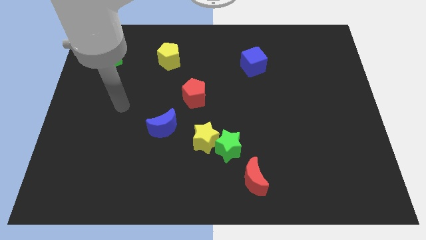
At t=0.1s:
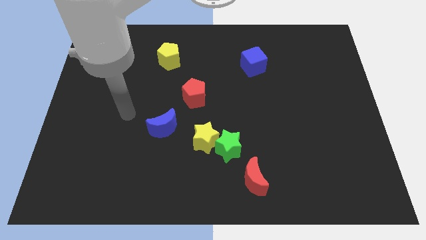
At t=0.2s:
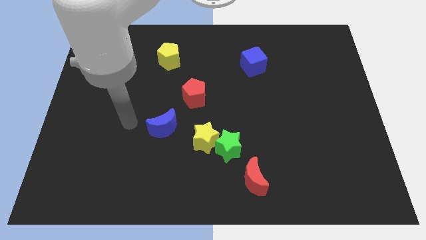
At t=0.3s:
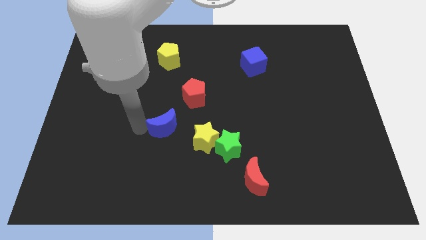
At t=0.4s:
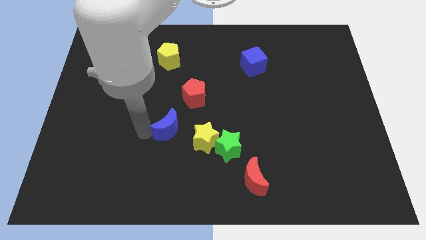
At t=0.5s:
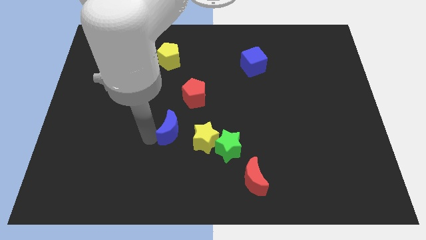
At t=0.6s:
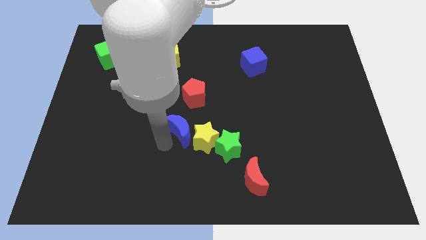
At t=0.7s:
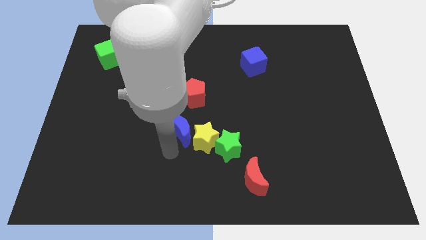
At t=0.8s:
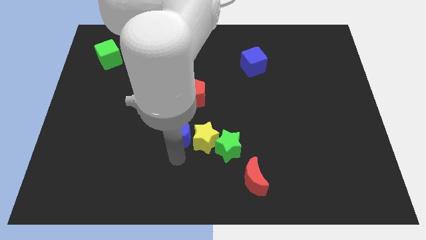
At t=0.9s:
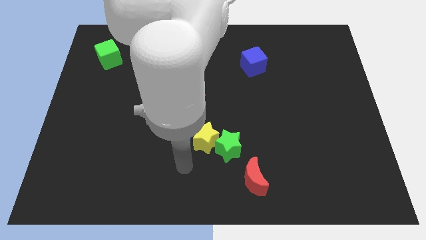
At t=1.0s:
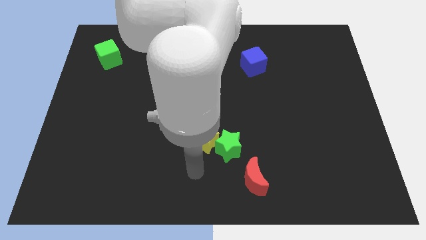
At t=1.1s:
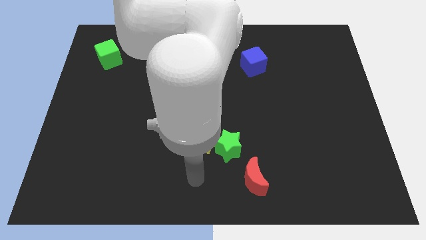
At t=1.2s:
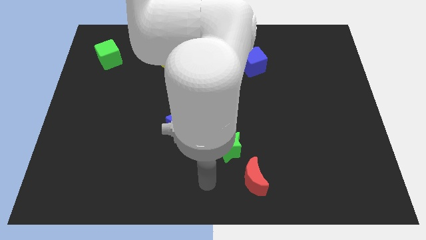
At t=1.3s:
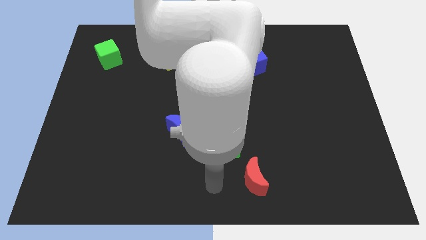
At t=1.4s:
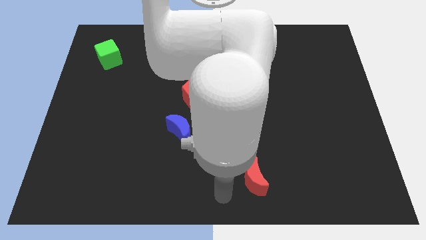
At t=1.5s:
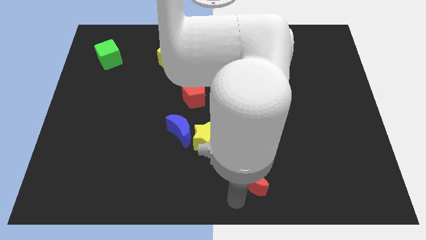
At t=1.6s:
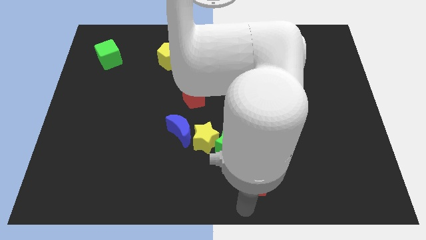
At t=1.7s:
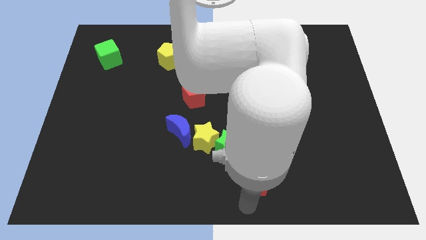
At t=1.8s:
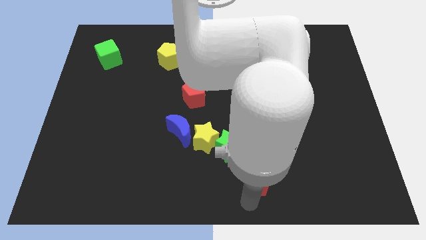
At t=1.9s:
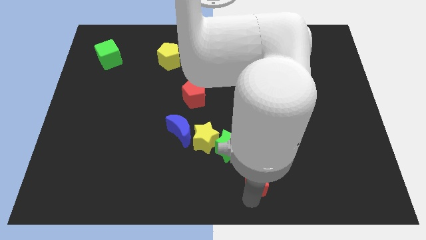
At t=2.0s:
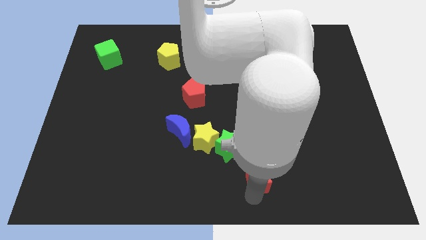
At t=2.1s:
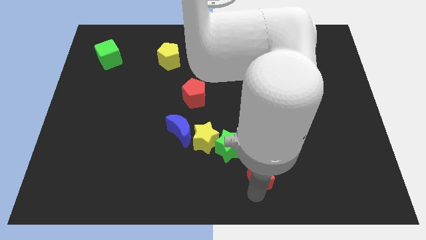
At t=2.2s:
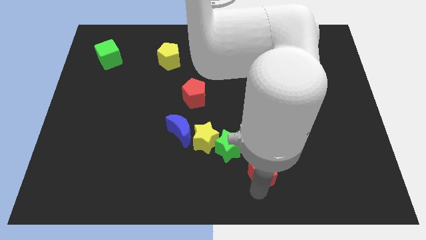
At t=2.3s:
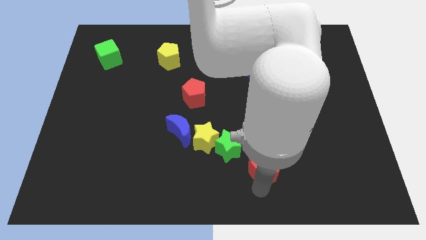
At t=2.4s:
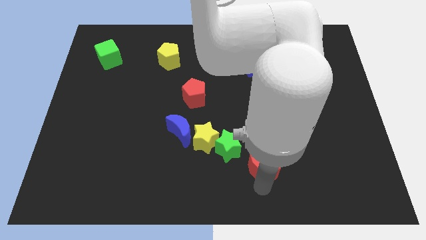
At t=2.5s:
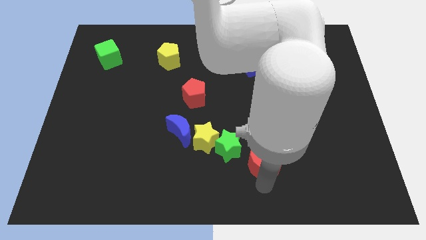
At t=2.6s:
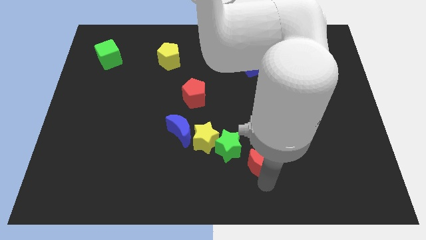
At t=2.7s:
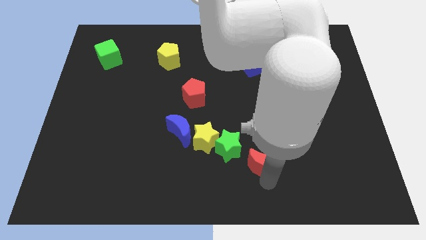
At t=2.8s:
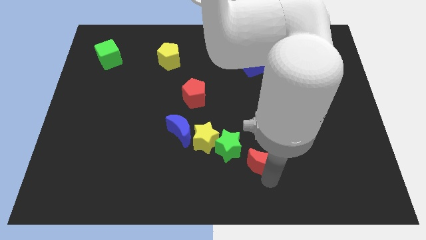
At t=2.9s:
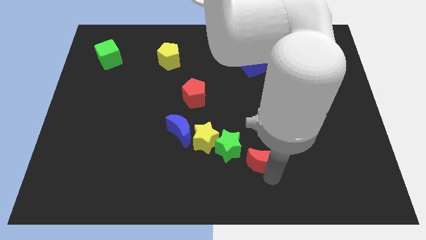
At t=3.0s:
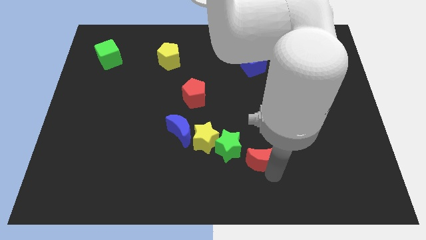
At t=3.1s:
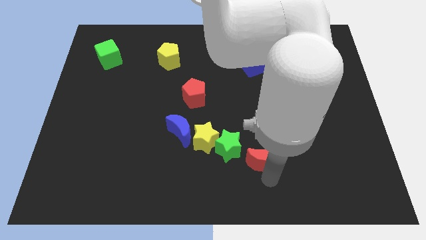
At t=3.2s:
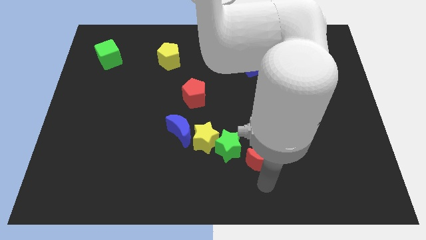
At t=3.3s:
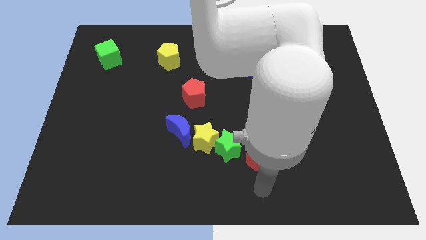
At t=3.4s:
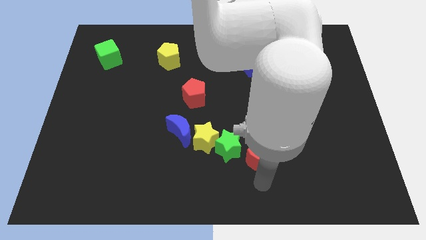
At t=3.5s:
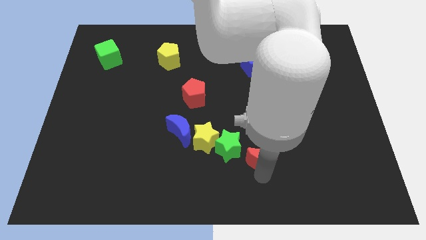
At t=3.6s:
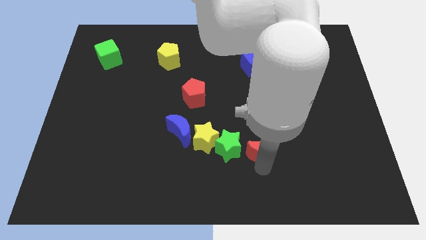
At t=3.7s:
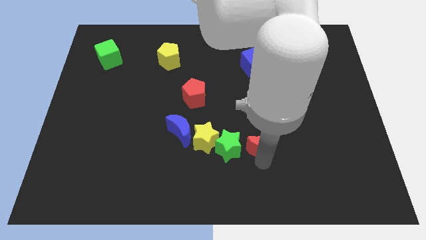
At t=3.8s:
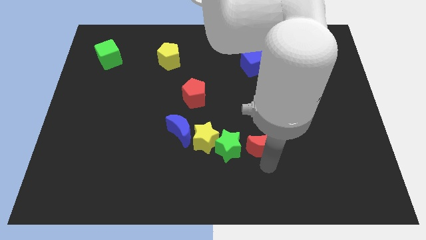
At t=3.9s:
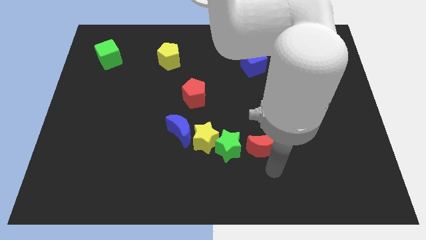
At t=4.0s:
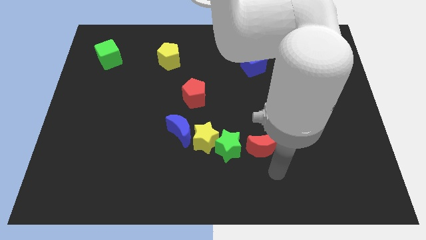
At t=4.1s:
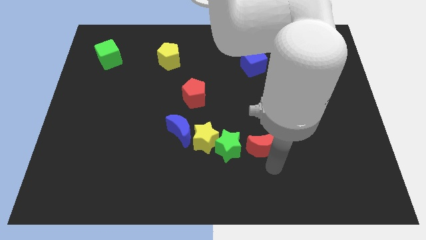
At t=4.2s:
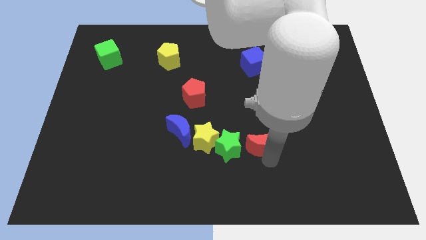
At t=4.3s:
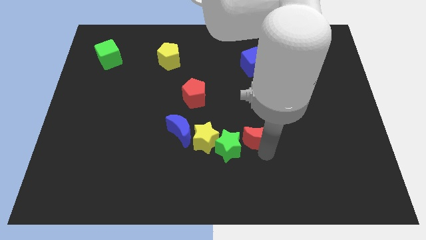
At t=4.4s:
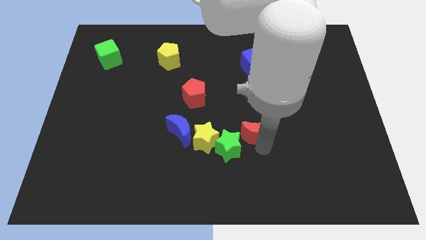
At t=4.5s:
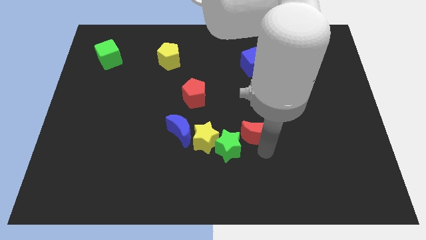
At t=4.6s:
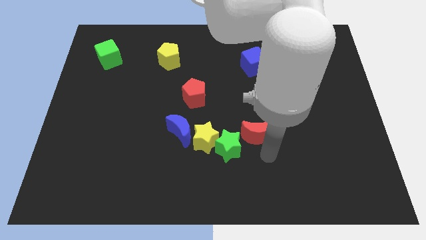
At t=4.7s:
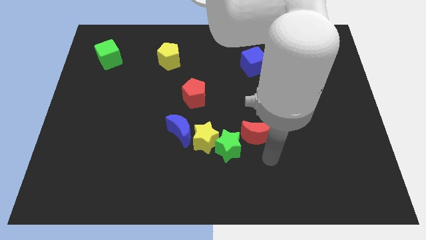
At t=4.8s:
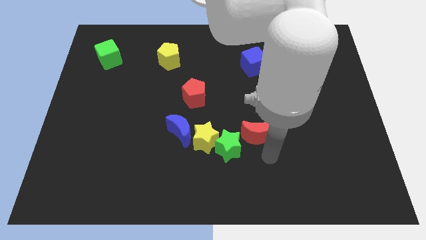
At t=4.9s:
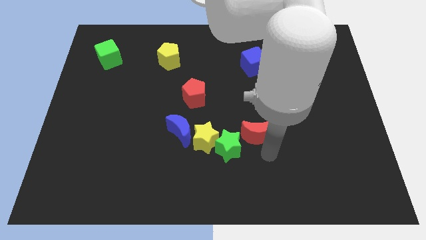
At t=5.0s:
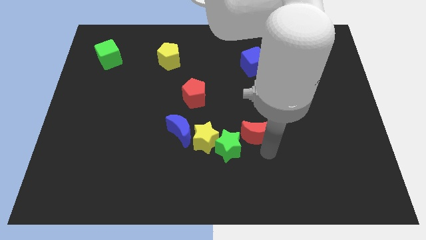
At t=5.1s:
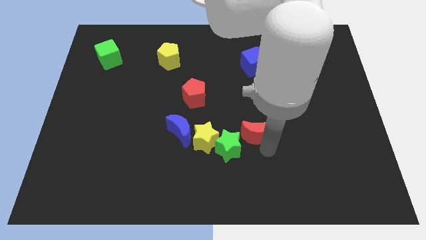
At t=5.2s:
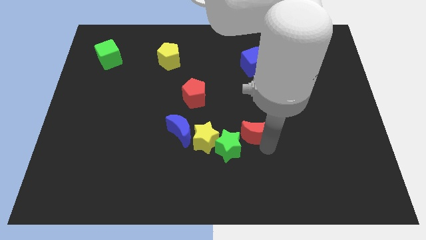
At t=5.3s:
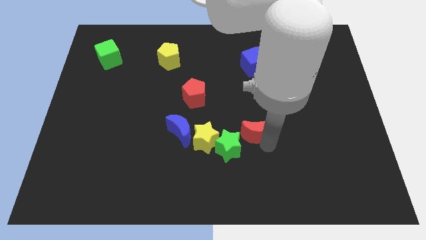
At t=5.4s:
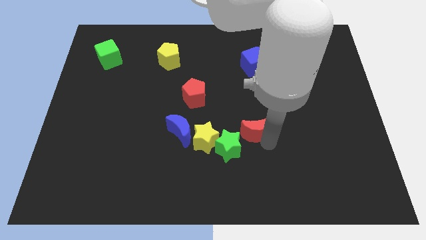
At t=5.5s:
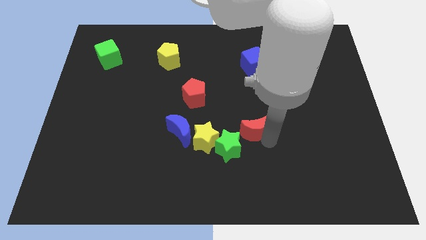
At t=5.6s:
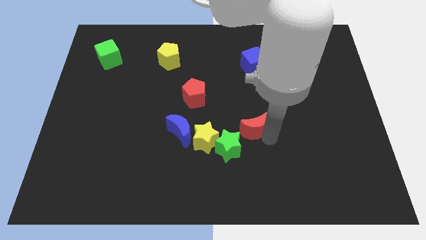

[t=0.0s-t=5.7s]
slide the red moon to the middle
